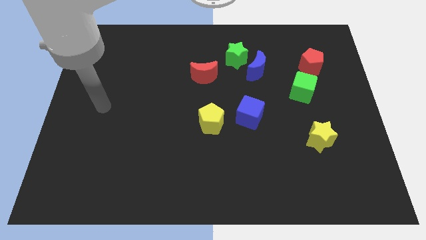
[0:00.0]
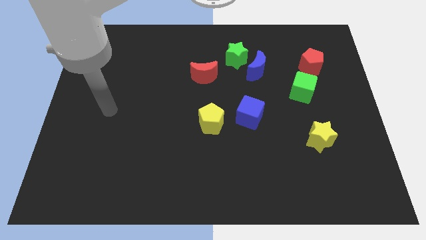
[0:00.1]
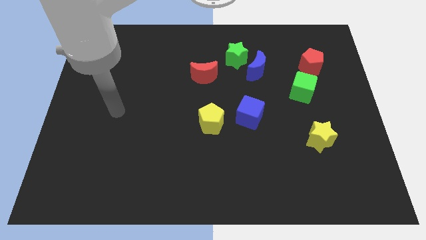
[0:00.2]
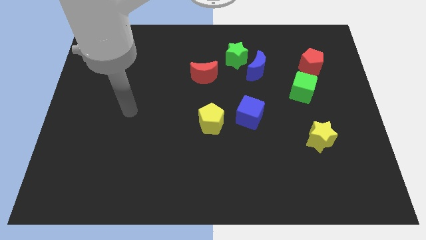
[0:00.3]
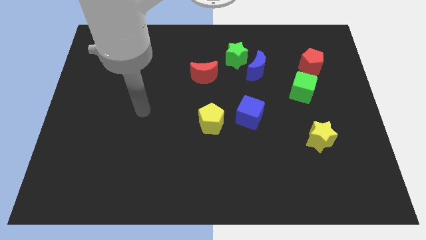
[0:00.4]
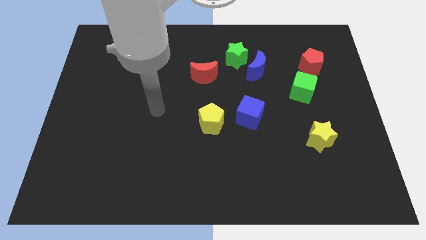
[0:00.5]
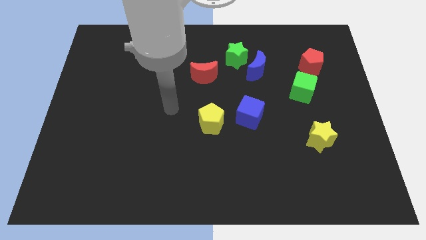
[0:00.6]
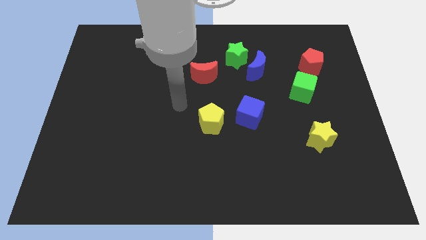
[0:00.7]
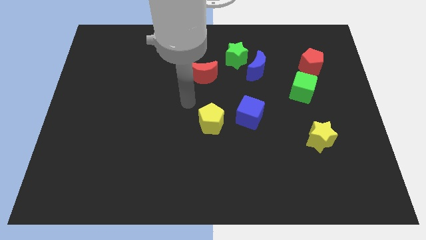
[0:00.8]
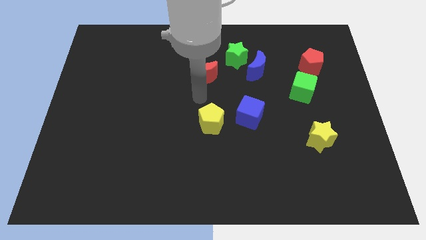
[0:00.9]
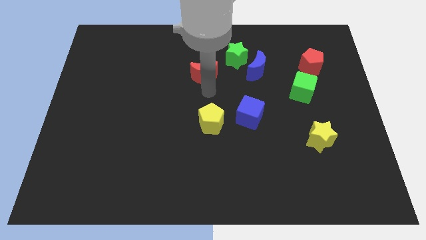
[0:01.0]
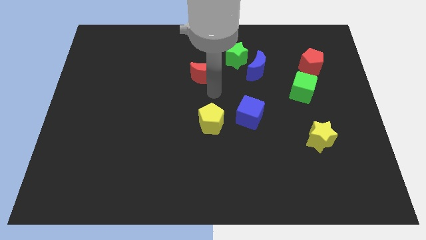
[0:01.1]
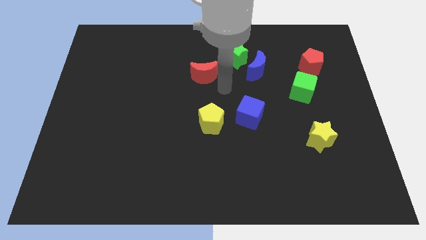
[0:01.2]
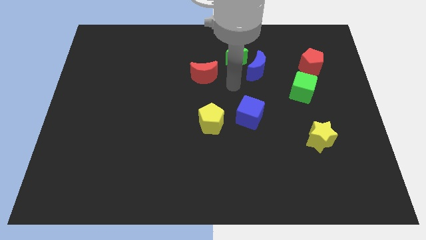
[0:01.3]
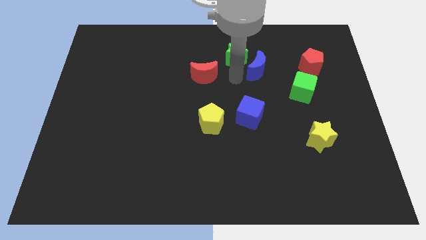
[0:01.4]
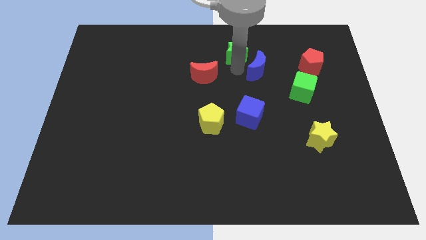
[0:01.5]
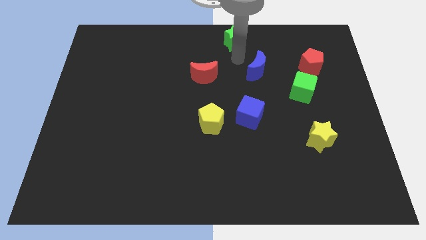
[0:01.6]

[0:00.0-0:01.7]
move the blue moon away from the green star

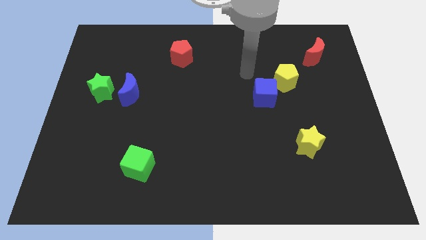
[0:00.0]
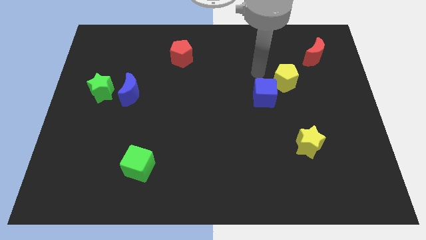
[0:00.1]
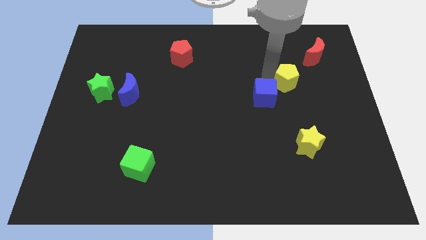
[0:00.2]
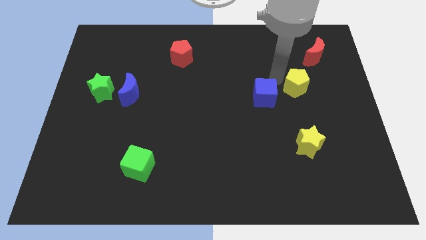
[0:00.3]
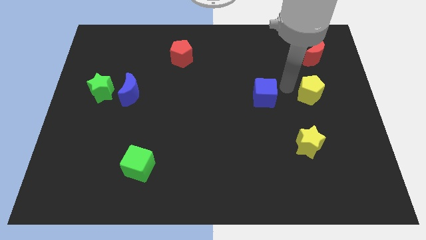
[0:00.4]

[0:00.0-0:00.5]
separate the blue cube from the yellow pentagon

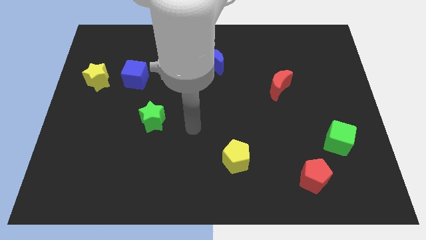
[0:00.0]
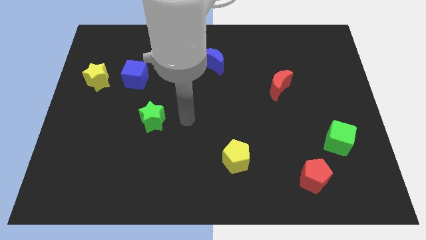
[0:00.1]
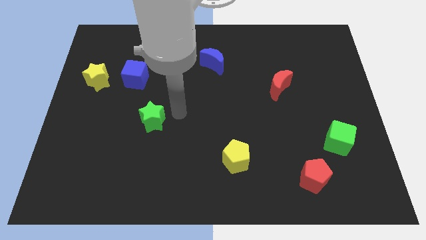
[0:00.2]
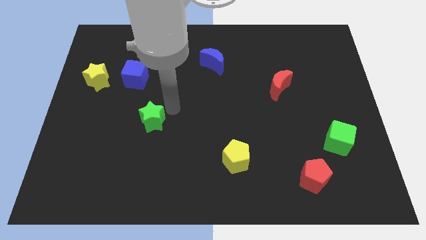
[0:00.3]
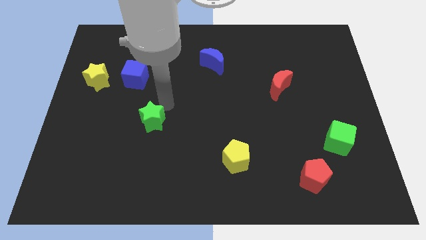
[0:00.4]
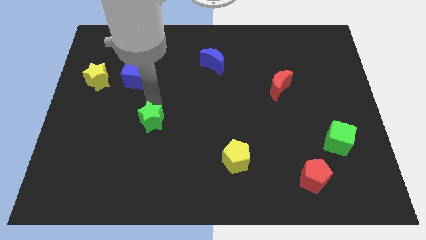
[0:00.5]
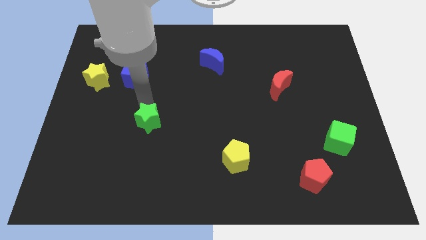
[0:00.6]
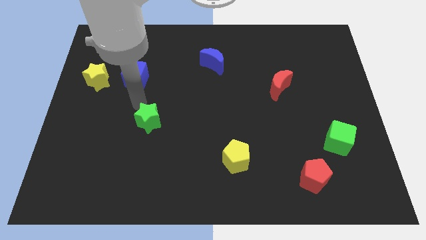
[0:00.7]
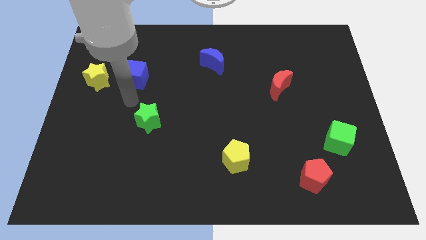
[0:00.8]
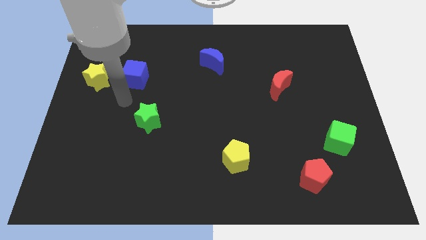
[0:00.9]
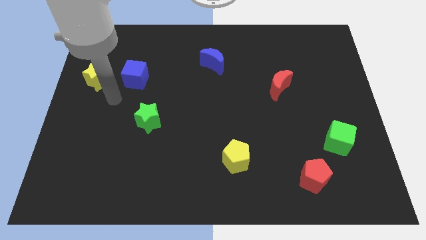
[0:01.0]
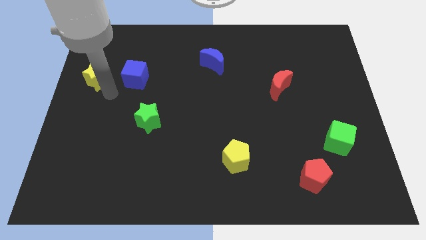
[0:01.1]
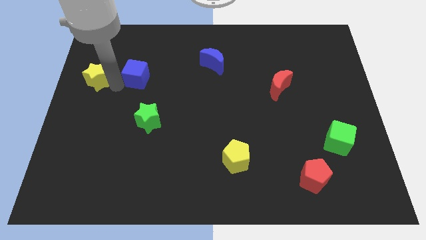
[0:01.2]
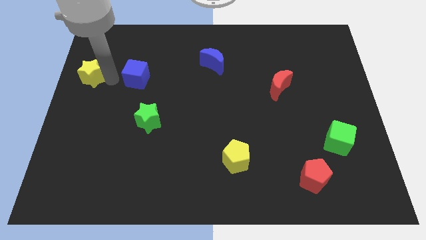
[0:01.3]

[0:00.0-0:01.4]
separate the blue cube from the yellow star

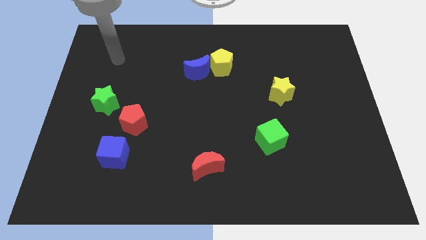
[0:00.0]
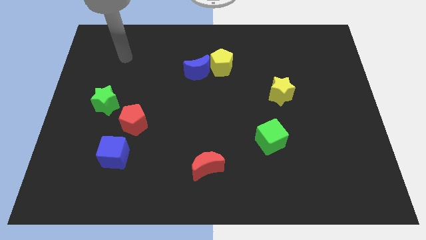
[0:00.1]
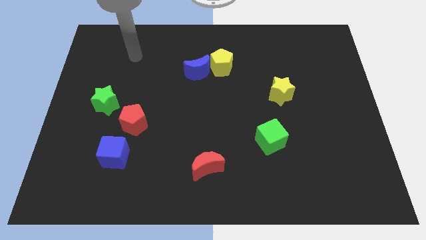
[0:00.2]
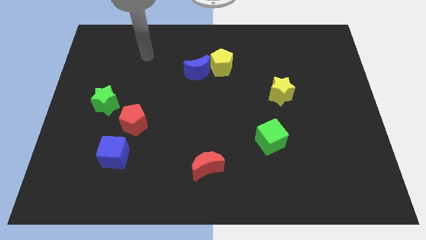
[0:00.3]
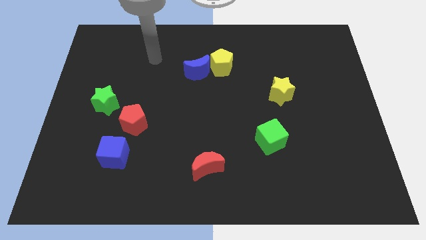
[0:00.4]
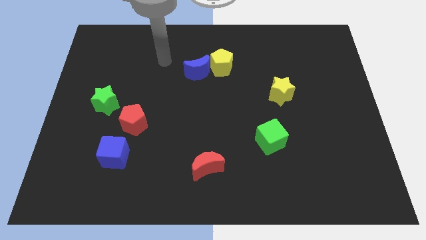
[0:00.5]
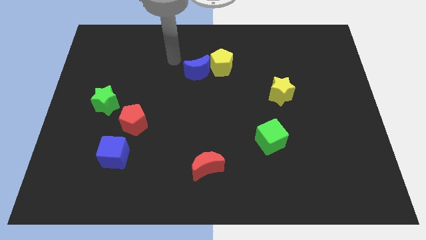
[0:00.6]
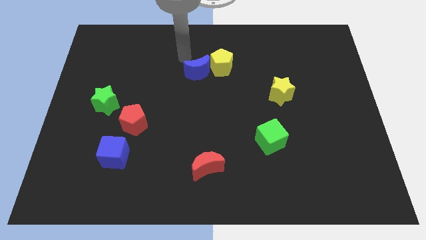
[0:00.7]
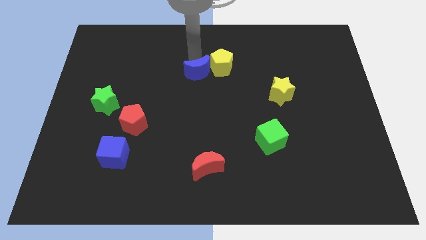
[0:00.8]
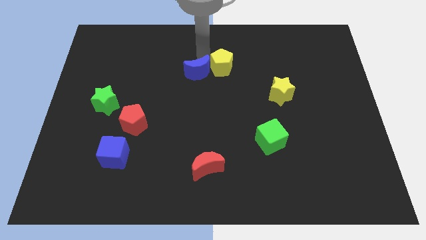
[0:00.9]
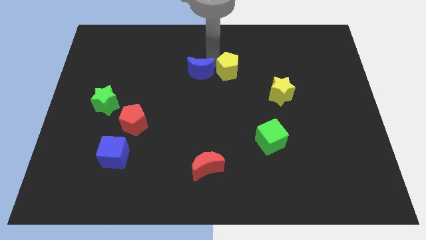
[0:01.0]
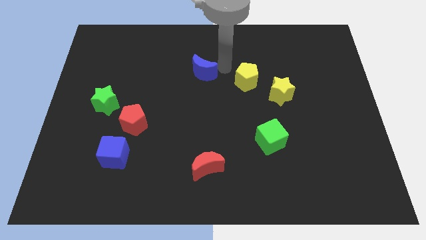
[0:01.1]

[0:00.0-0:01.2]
separate the blue moon from the yellow pentagon

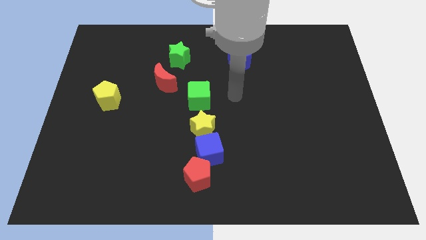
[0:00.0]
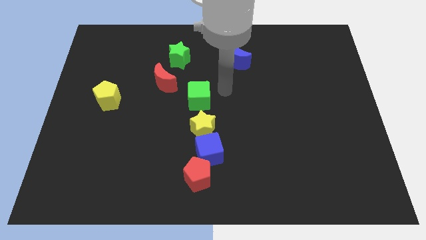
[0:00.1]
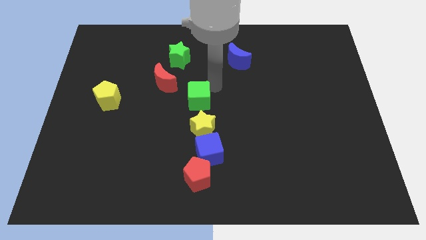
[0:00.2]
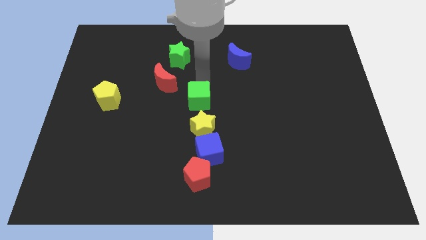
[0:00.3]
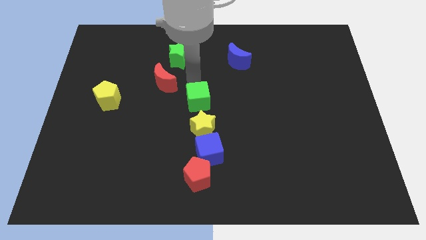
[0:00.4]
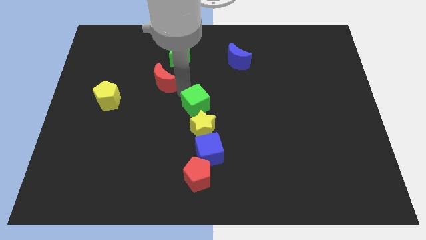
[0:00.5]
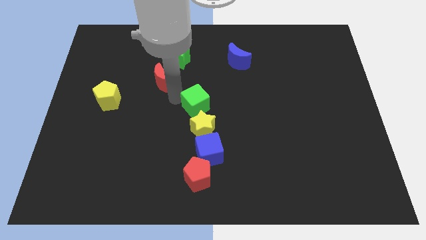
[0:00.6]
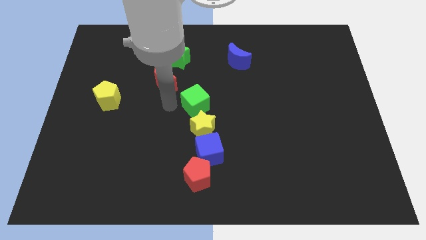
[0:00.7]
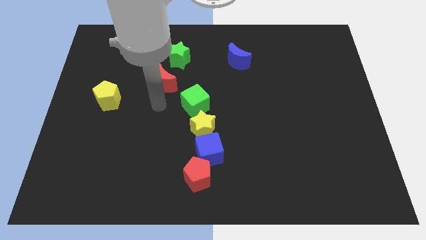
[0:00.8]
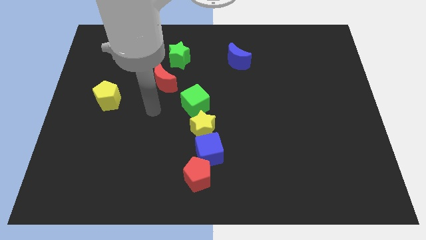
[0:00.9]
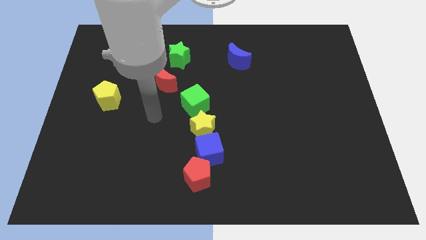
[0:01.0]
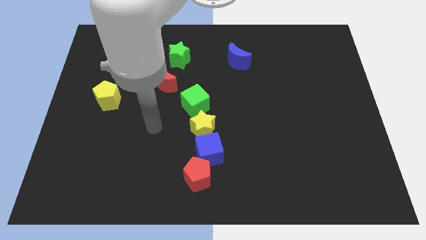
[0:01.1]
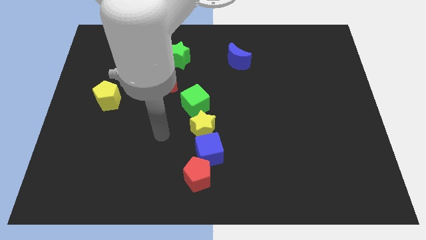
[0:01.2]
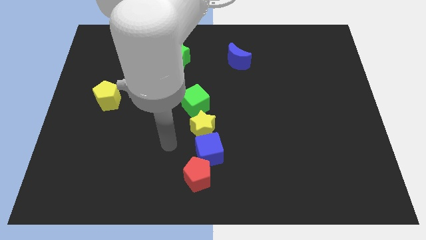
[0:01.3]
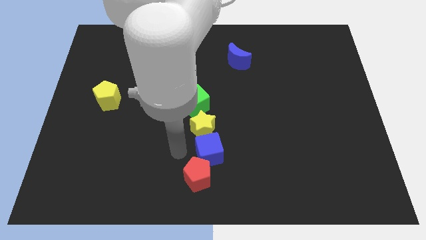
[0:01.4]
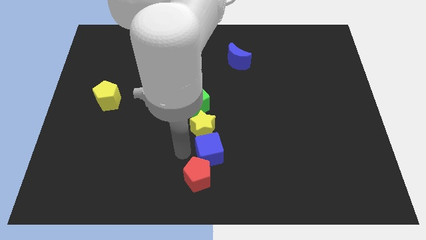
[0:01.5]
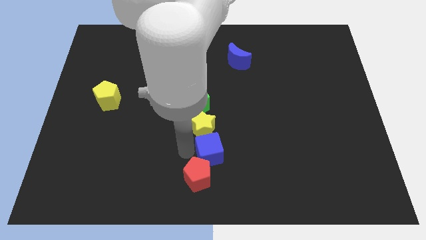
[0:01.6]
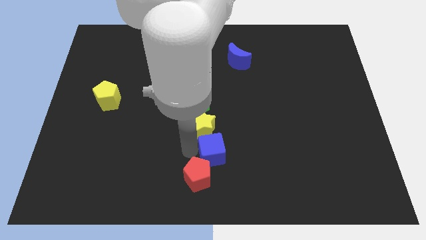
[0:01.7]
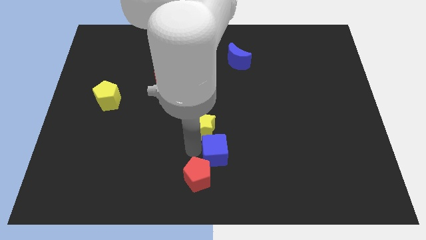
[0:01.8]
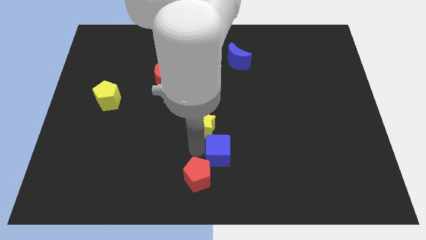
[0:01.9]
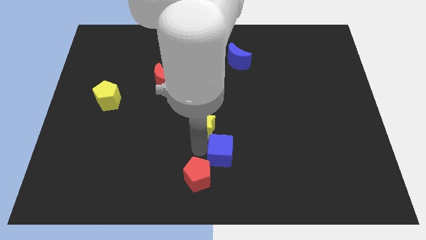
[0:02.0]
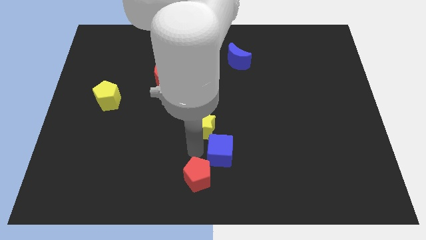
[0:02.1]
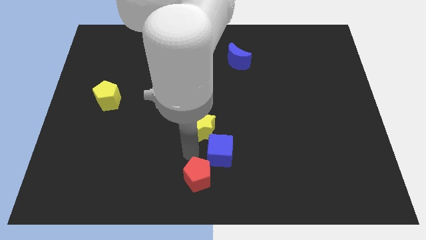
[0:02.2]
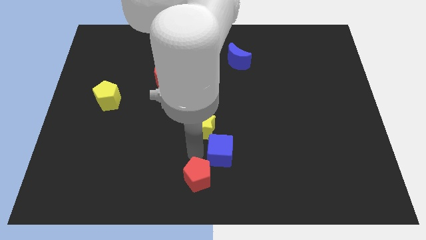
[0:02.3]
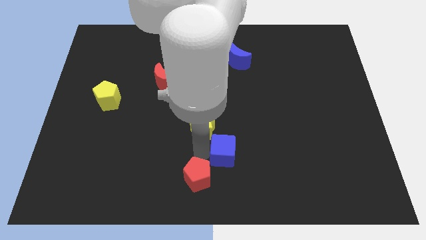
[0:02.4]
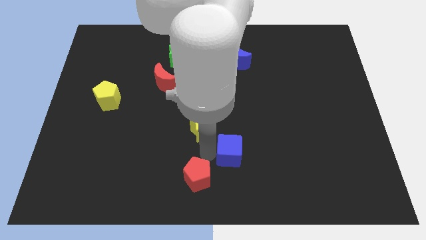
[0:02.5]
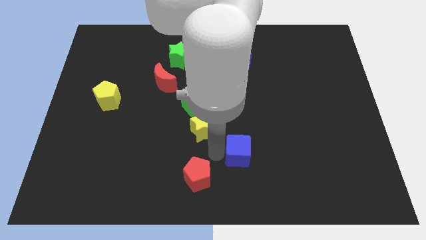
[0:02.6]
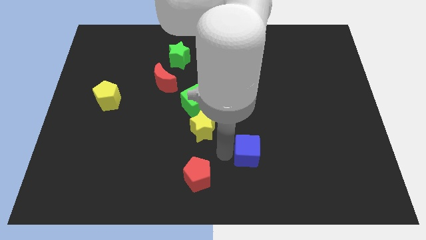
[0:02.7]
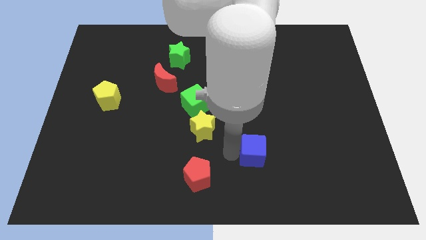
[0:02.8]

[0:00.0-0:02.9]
move the blue cube away from the yellow star and red pentagon

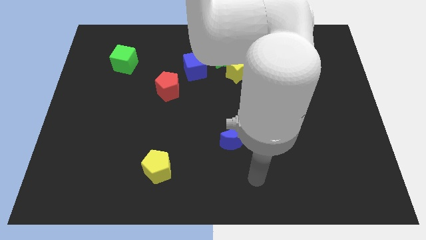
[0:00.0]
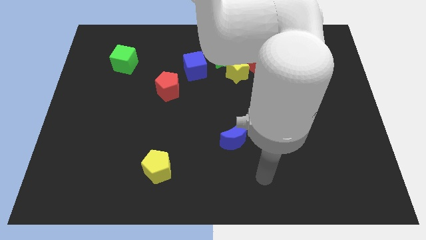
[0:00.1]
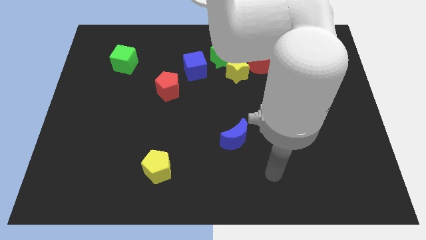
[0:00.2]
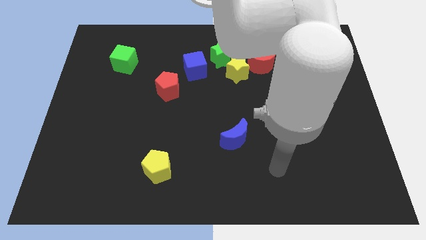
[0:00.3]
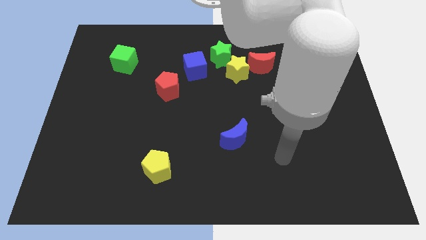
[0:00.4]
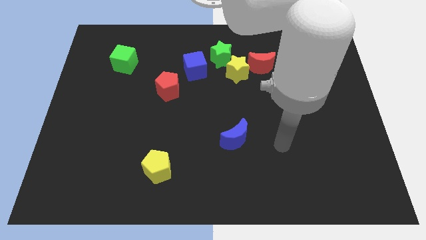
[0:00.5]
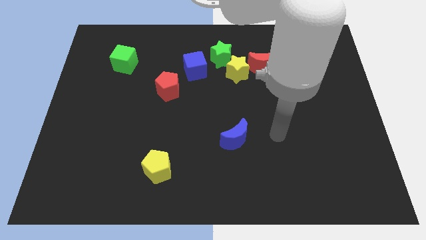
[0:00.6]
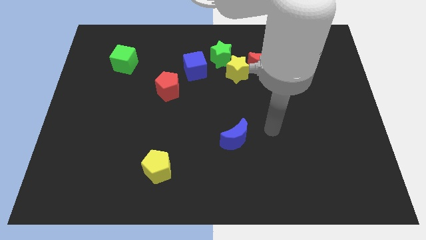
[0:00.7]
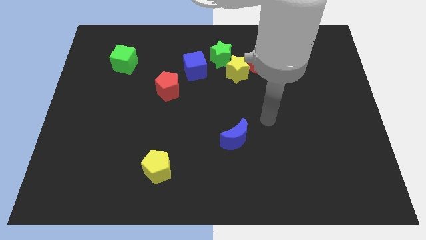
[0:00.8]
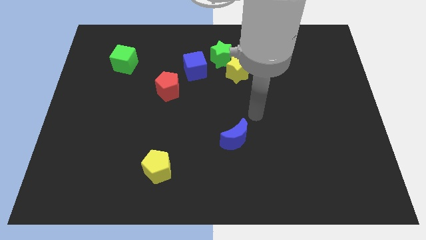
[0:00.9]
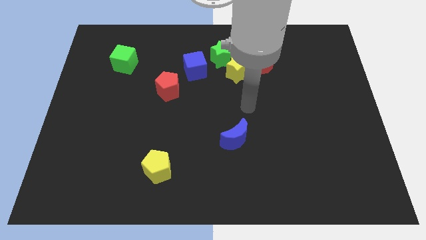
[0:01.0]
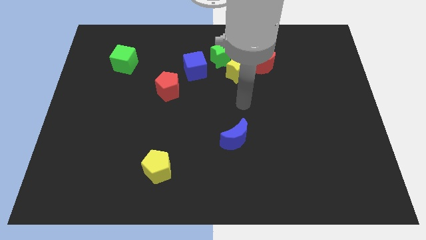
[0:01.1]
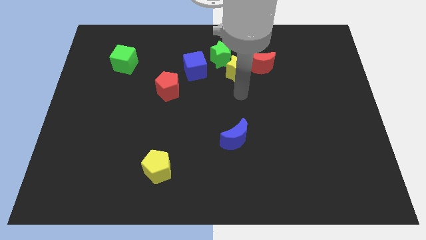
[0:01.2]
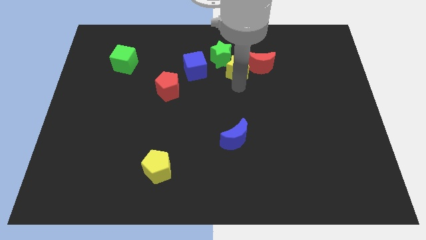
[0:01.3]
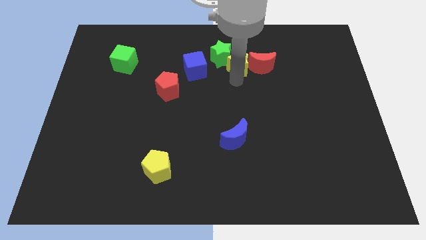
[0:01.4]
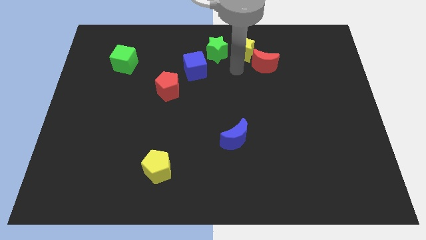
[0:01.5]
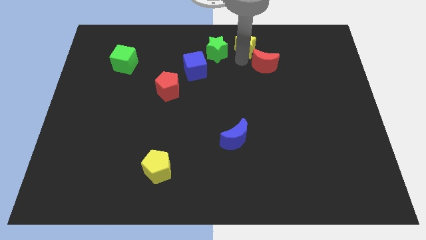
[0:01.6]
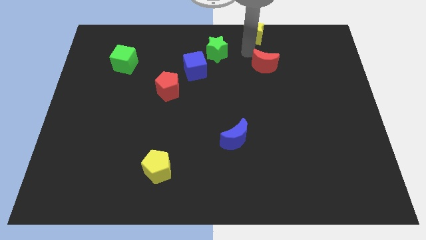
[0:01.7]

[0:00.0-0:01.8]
move the red moon away from the yellow star
